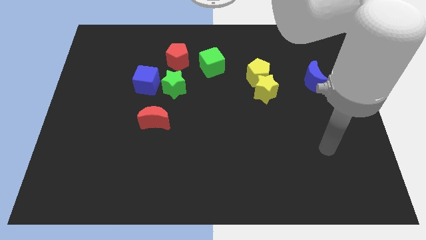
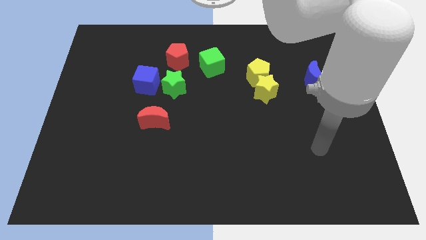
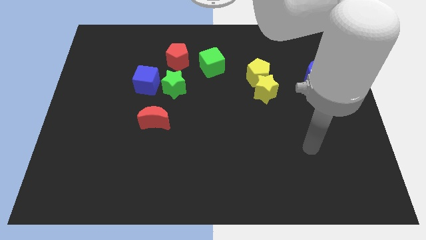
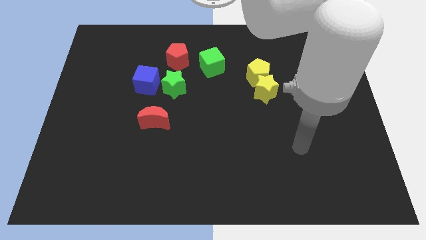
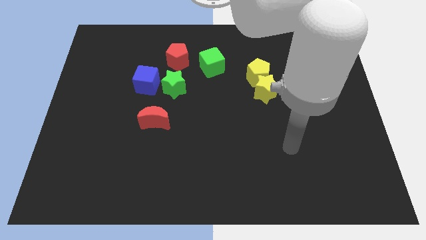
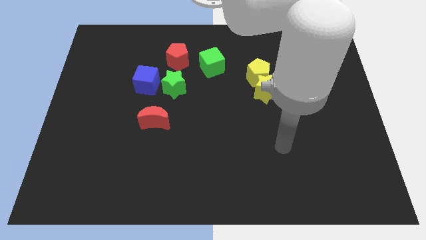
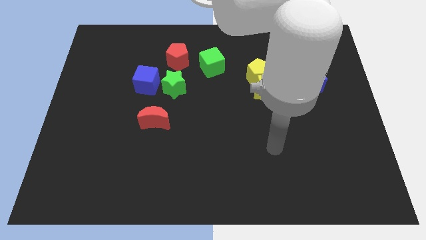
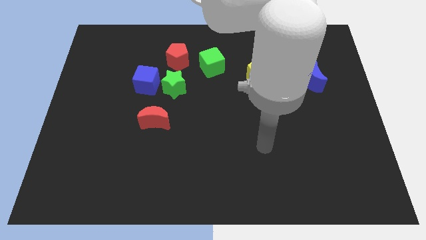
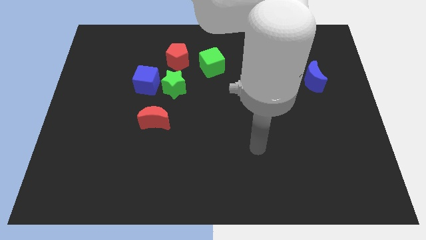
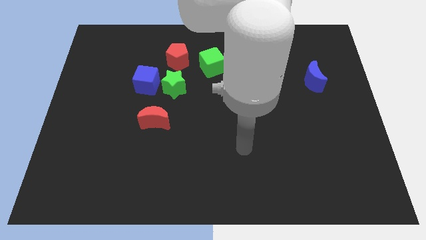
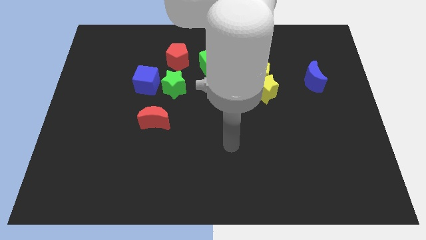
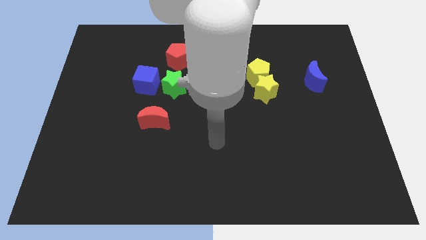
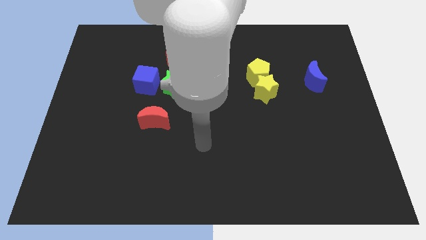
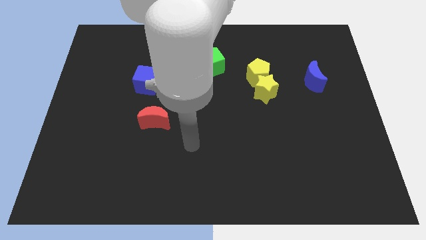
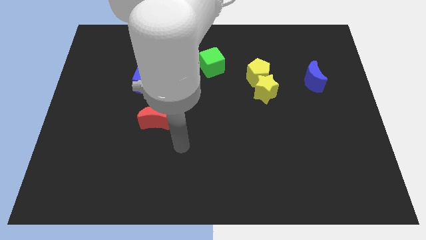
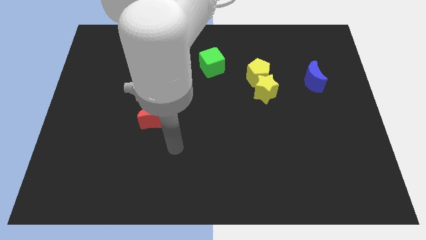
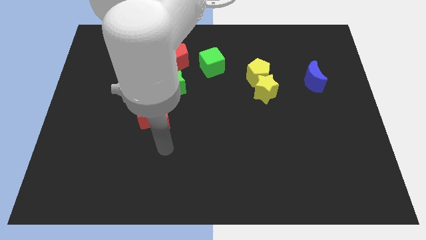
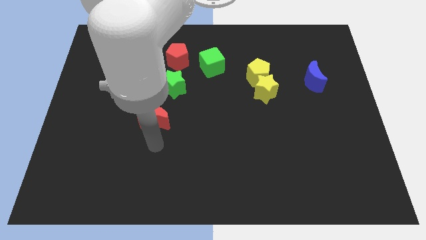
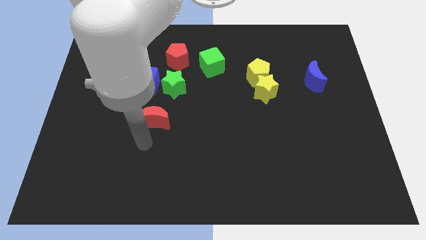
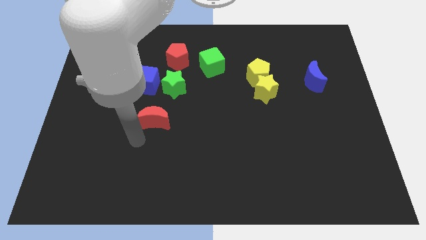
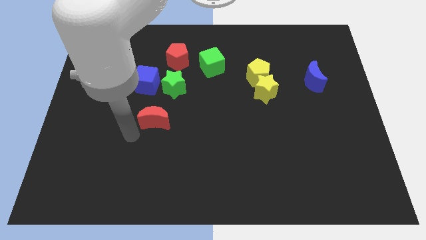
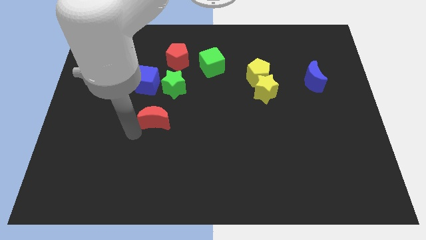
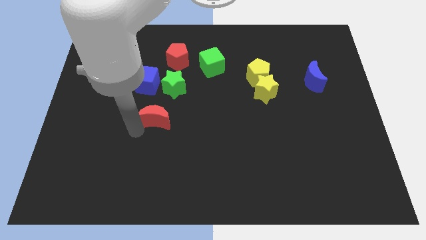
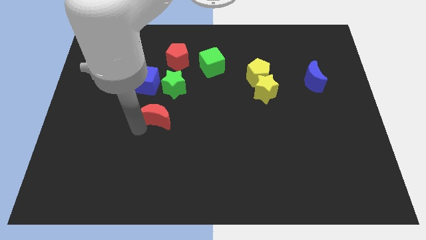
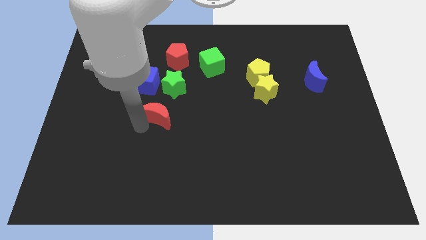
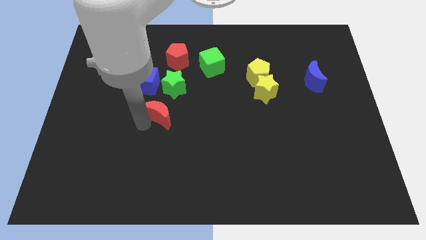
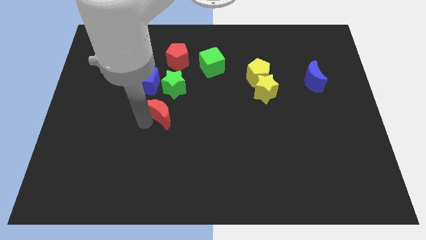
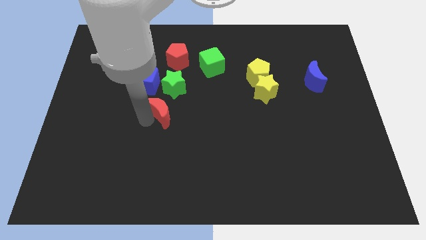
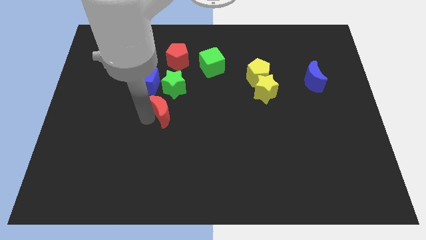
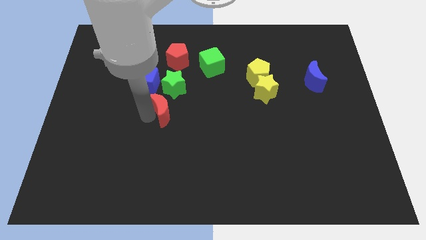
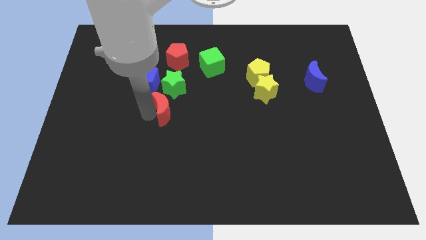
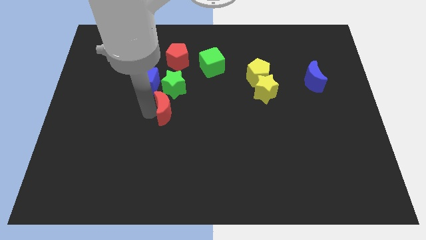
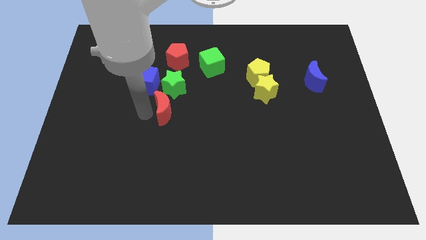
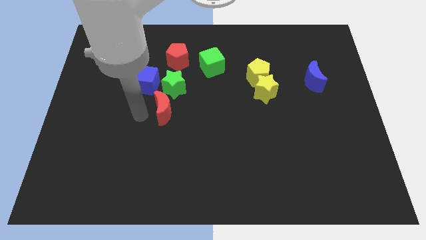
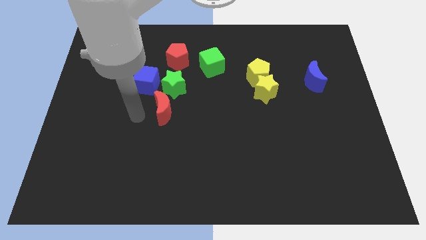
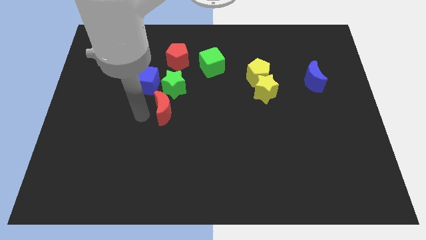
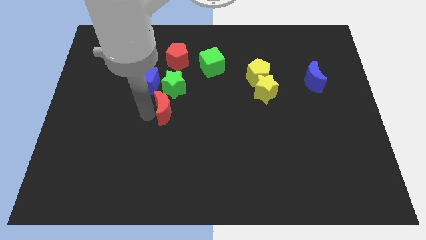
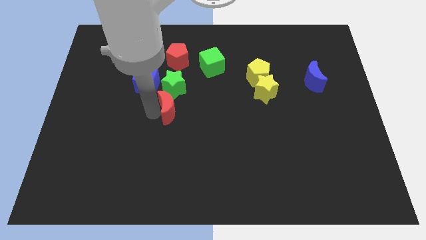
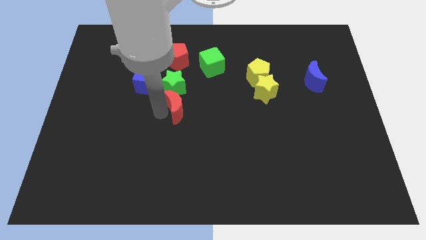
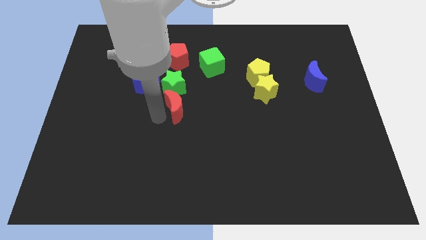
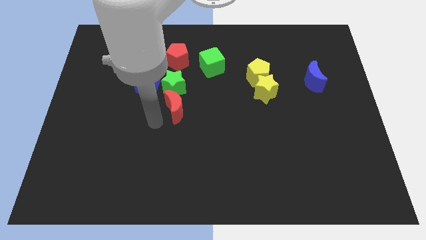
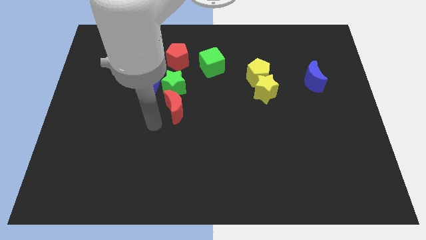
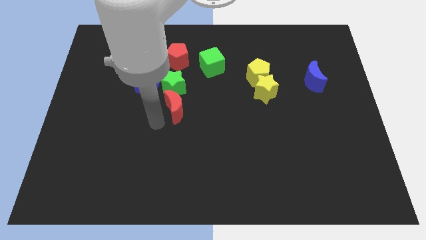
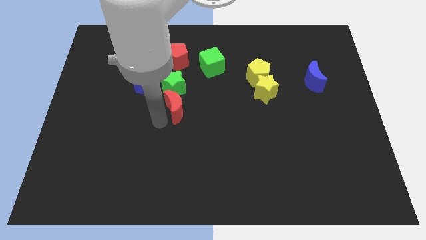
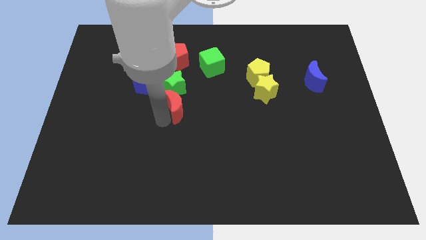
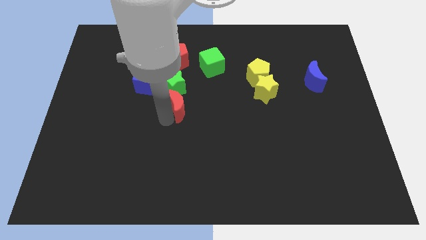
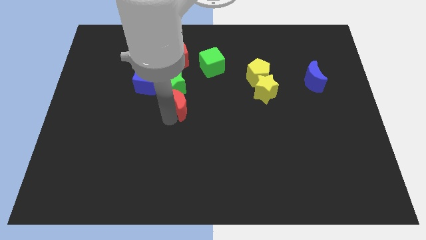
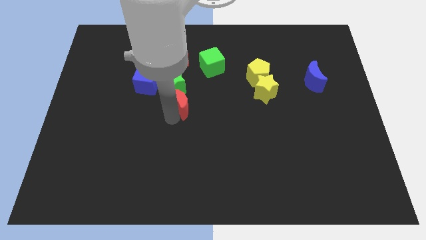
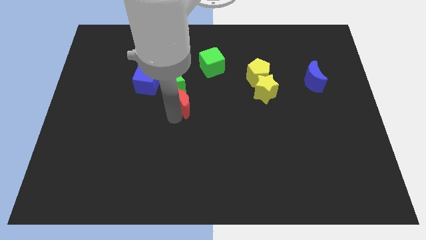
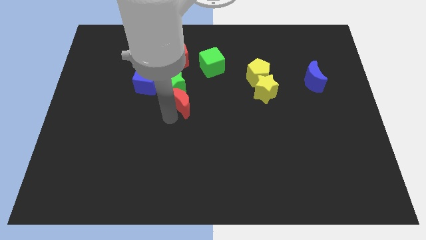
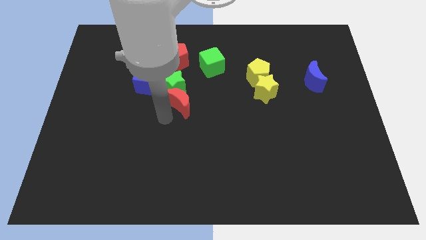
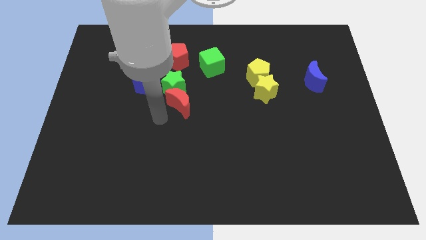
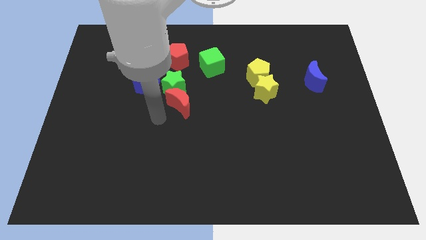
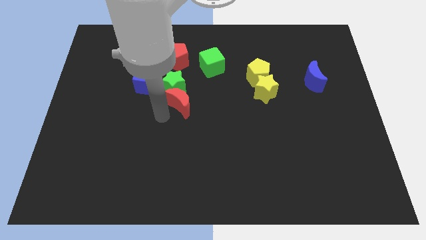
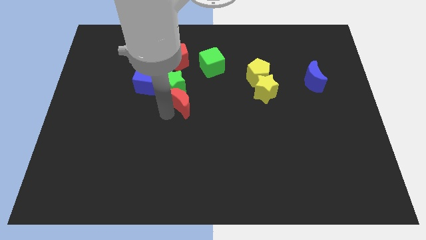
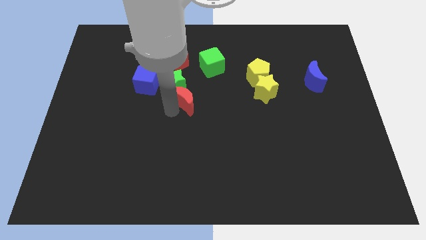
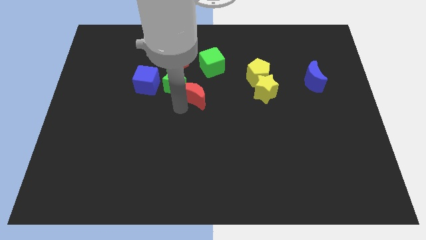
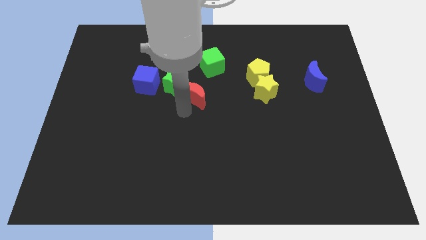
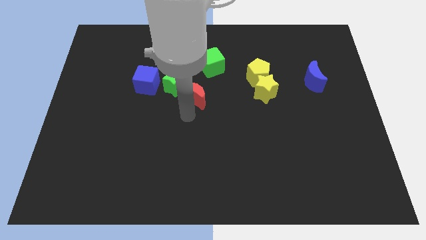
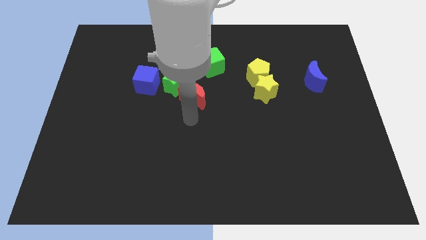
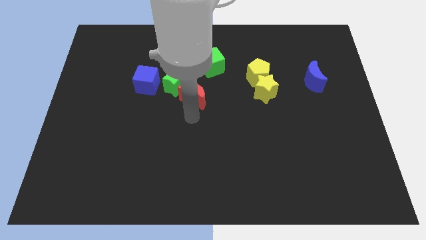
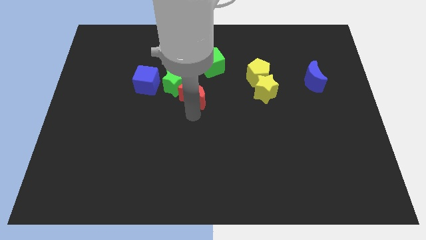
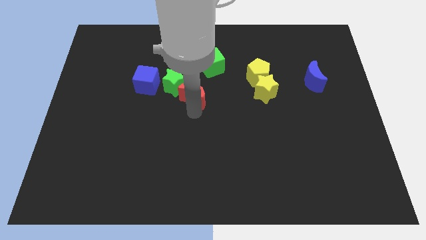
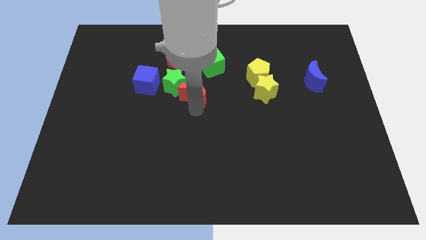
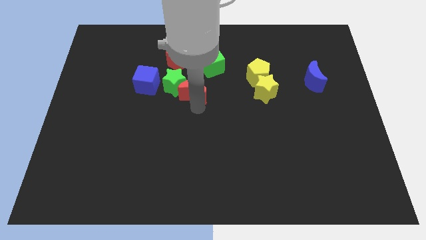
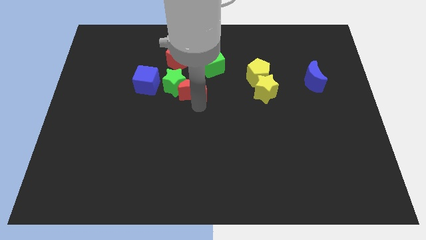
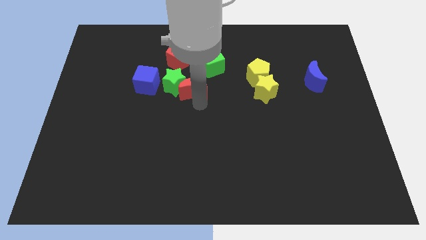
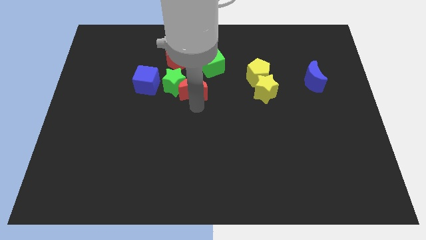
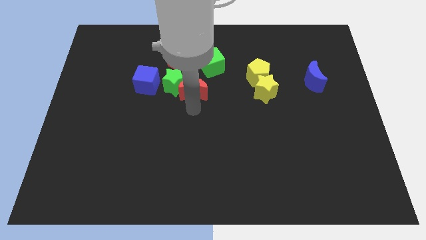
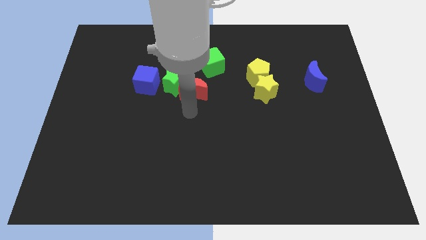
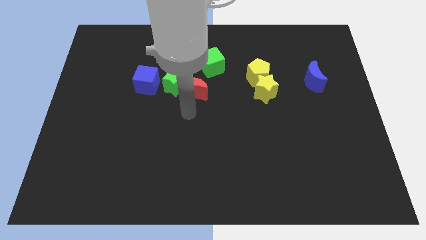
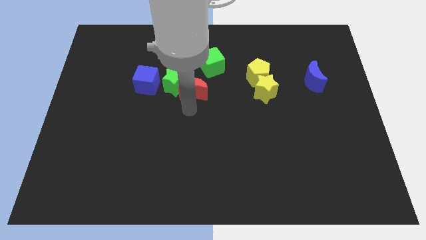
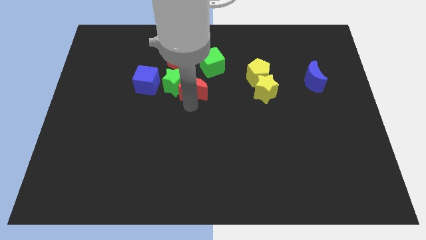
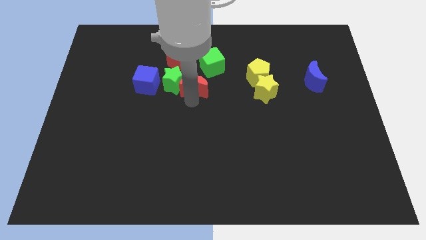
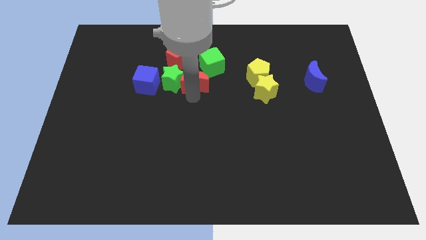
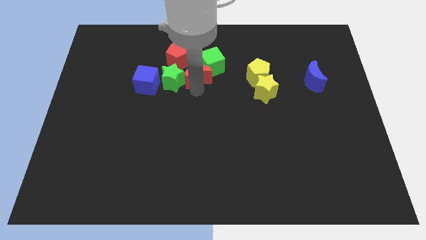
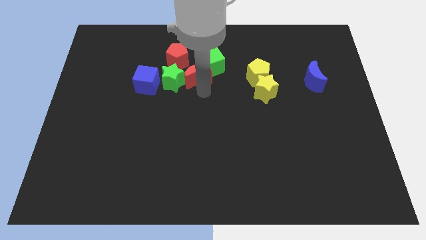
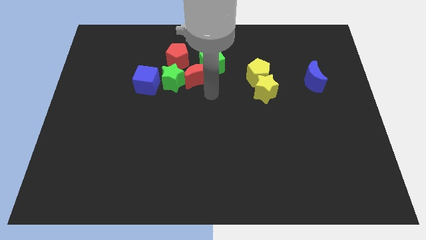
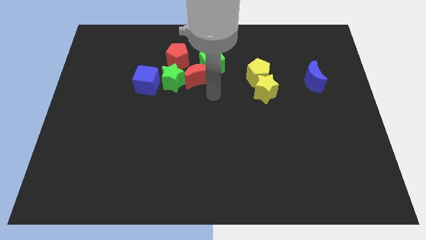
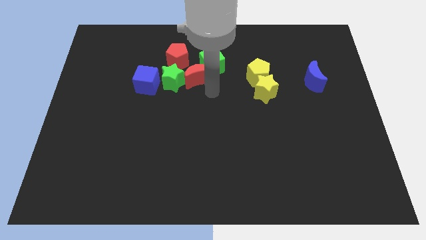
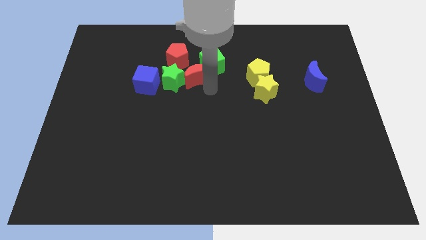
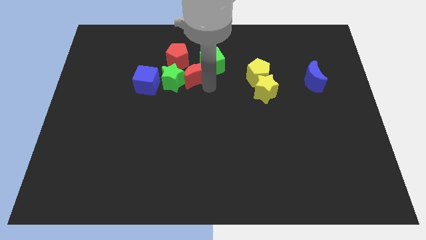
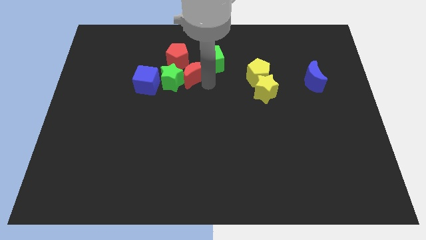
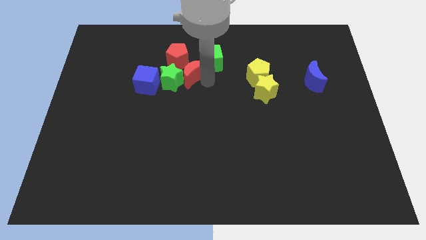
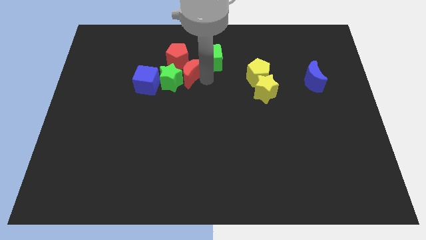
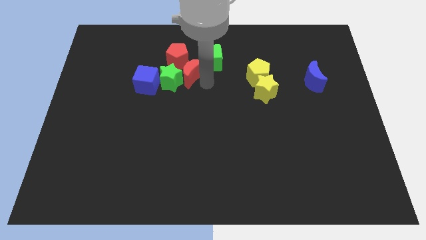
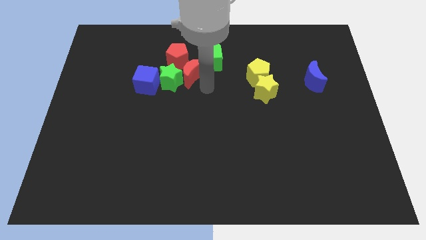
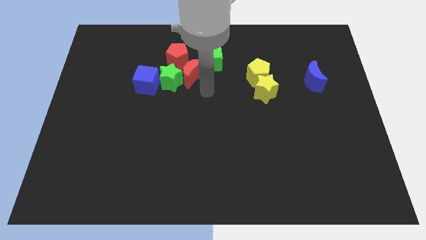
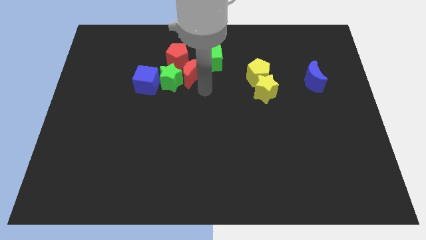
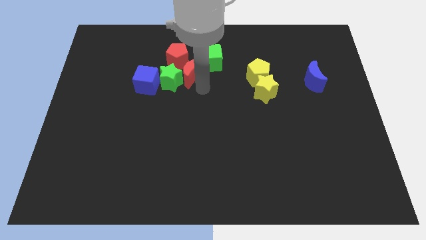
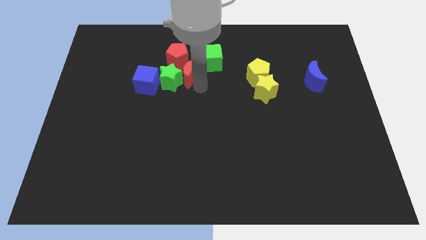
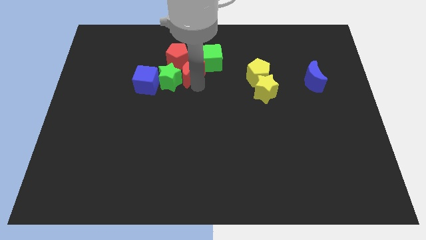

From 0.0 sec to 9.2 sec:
push the red moon towards the red pentagon
